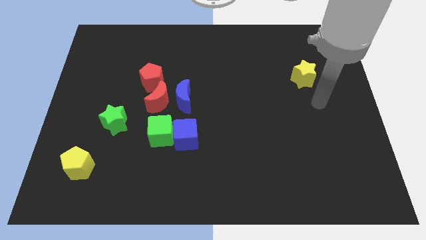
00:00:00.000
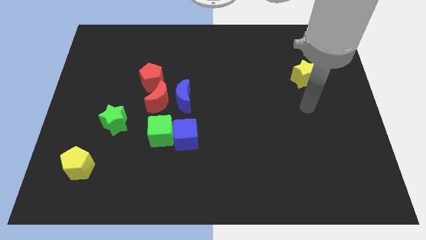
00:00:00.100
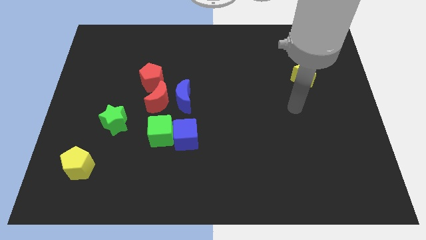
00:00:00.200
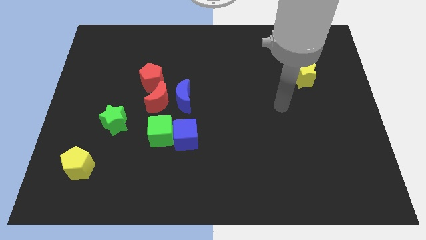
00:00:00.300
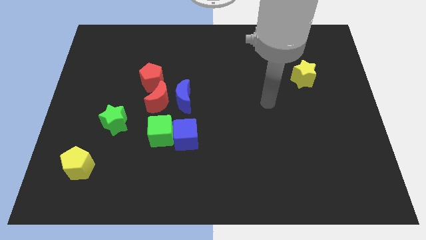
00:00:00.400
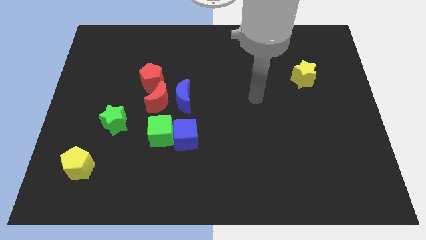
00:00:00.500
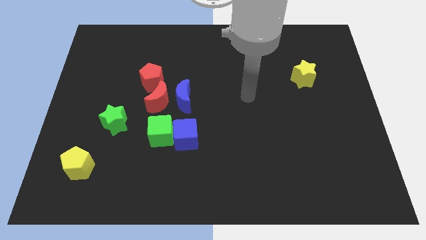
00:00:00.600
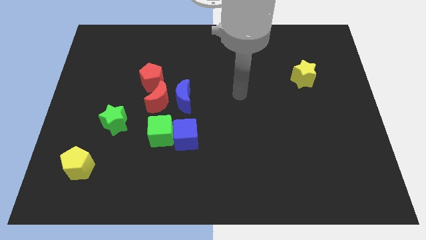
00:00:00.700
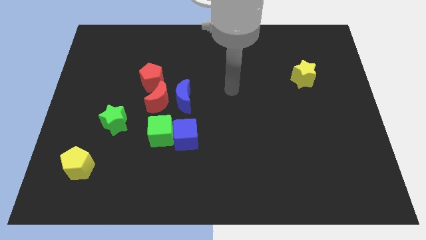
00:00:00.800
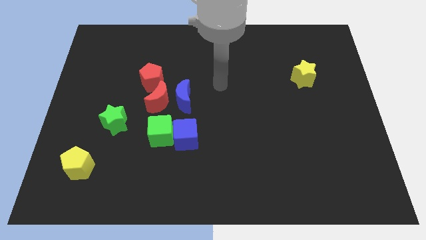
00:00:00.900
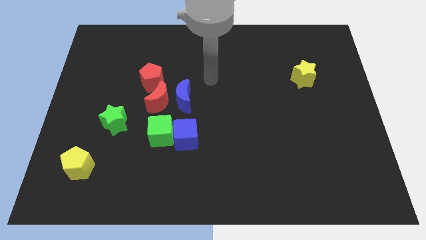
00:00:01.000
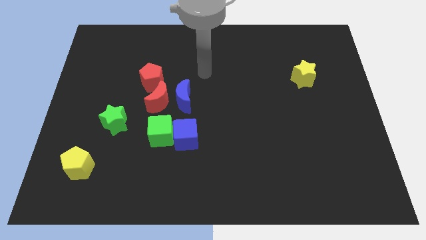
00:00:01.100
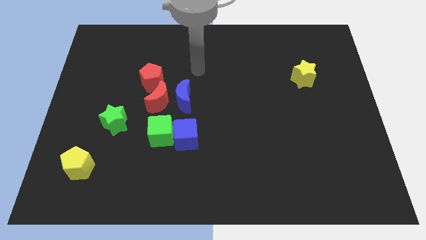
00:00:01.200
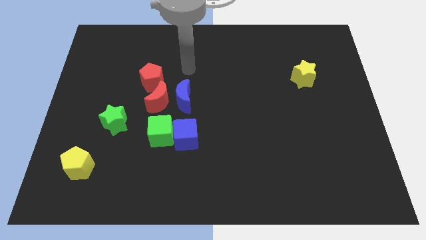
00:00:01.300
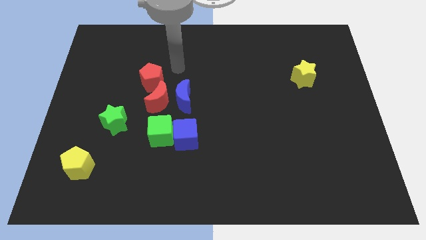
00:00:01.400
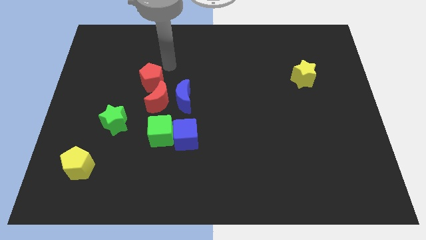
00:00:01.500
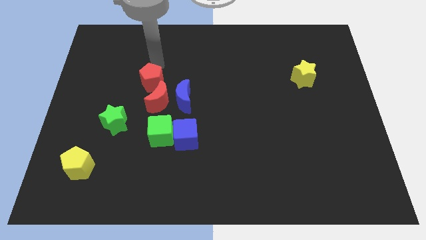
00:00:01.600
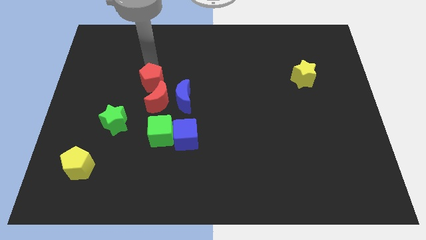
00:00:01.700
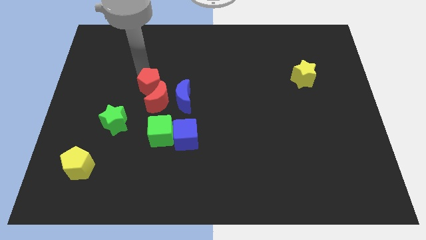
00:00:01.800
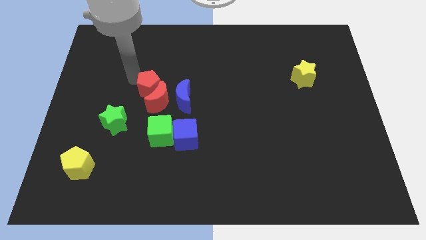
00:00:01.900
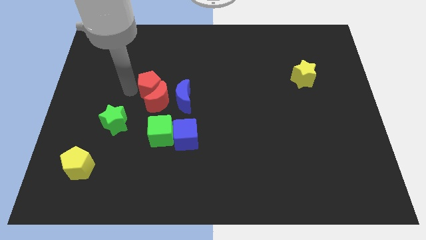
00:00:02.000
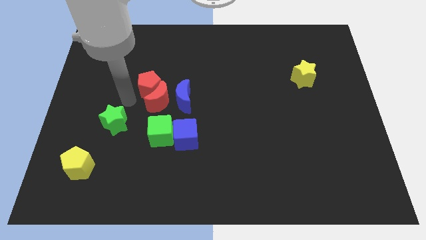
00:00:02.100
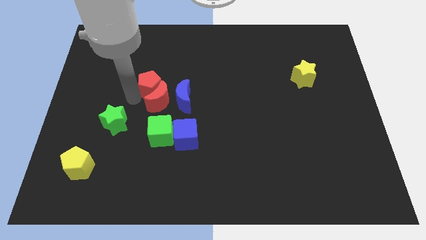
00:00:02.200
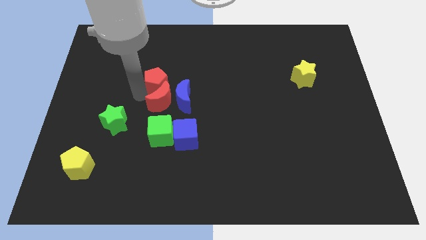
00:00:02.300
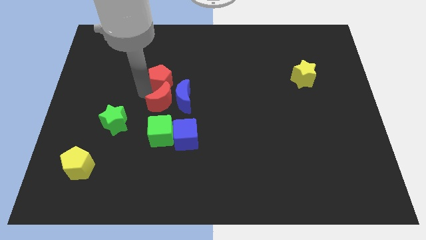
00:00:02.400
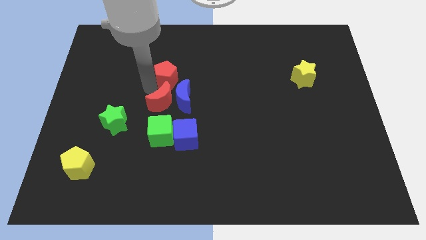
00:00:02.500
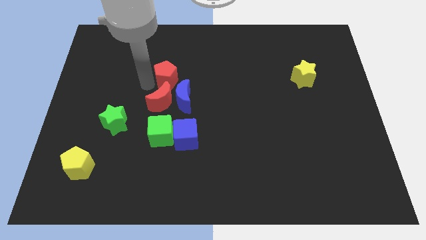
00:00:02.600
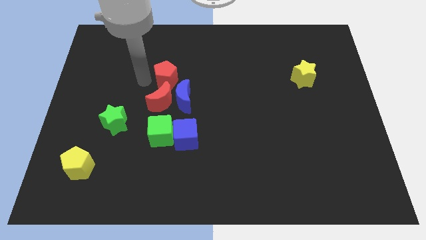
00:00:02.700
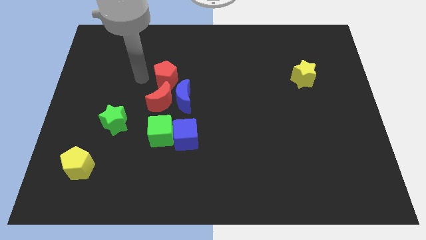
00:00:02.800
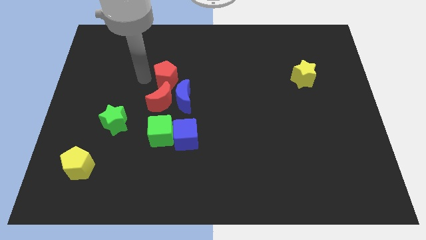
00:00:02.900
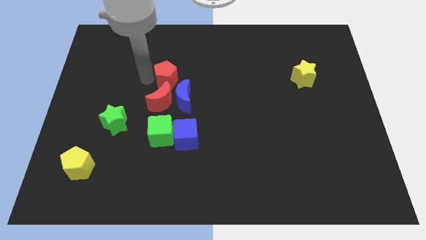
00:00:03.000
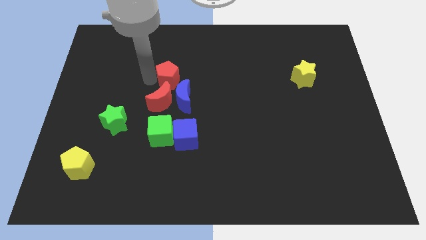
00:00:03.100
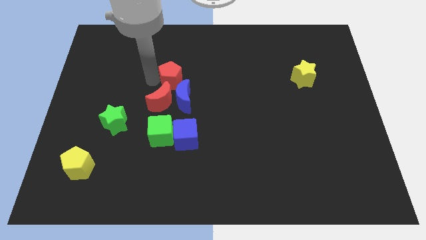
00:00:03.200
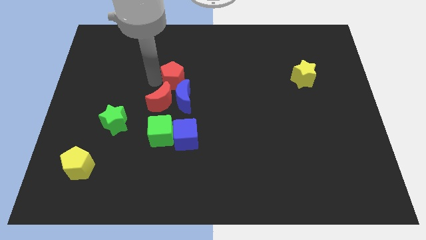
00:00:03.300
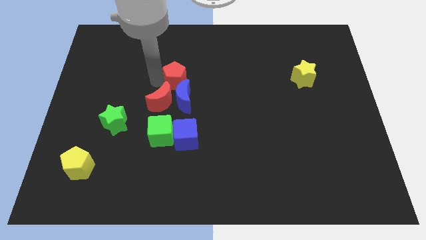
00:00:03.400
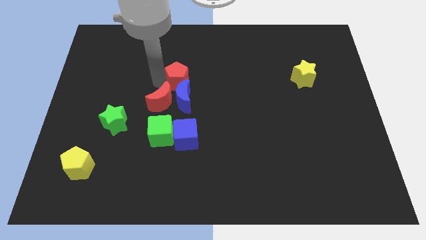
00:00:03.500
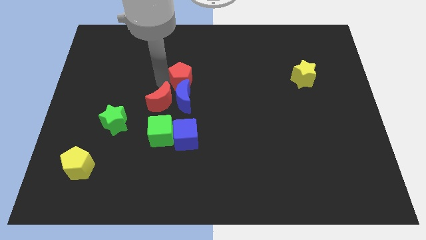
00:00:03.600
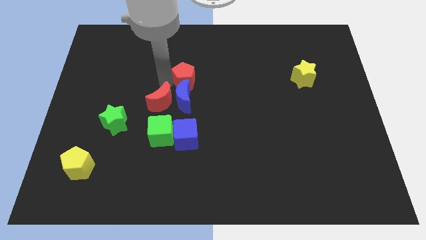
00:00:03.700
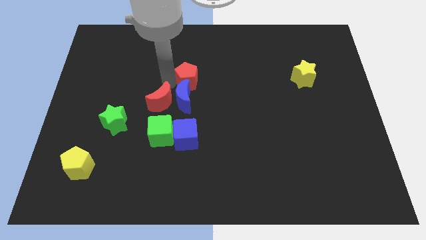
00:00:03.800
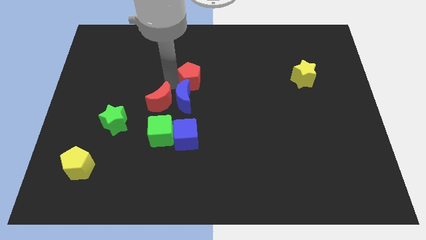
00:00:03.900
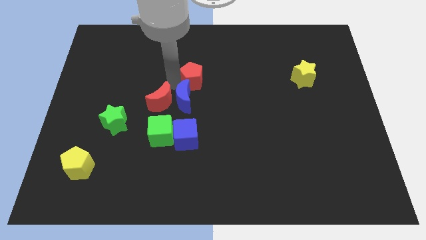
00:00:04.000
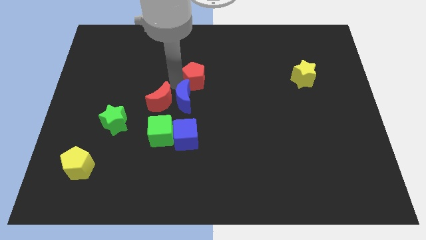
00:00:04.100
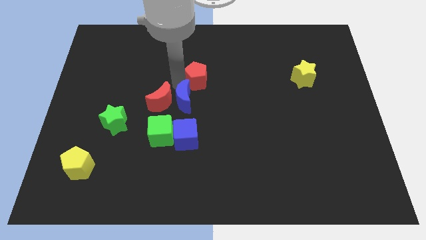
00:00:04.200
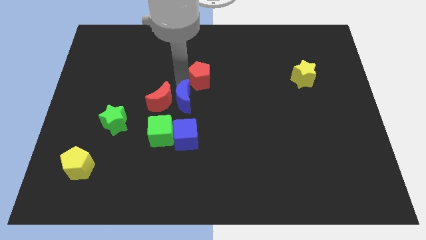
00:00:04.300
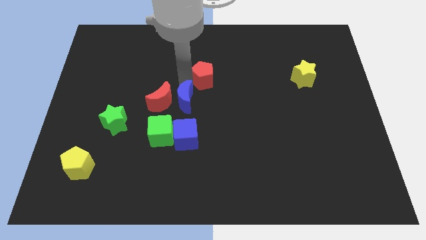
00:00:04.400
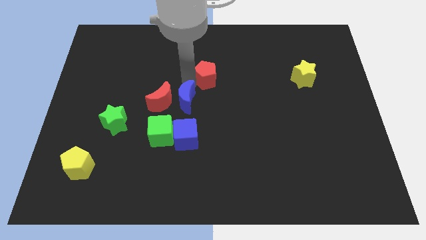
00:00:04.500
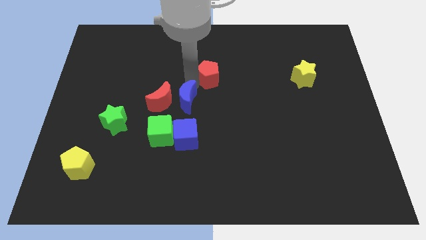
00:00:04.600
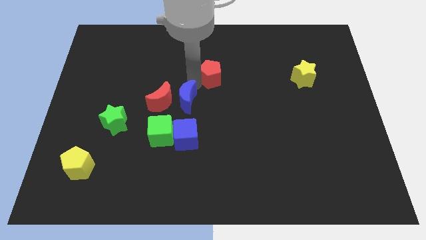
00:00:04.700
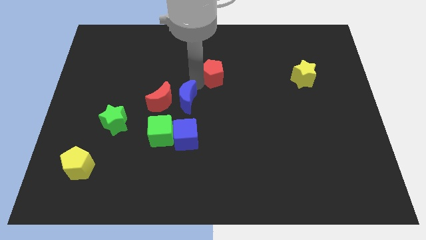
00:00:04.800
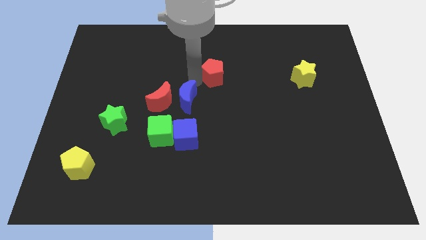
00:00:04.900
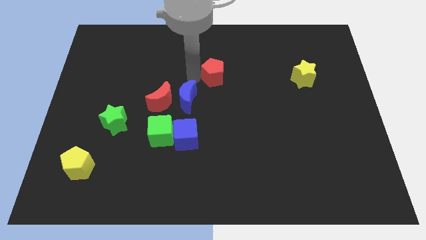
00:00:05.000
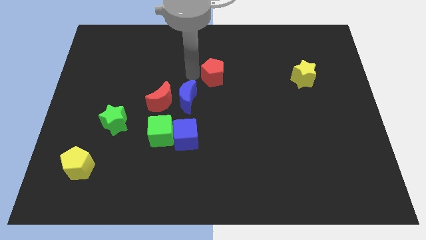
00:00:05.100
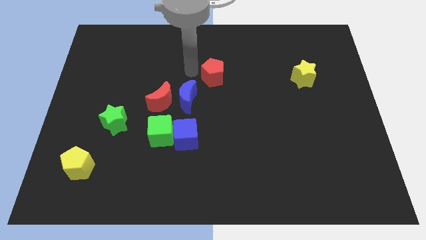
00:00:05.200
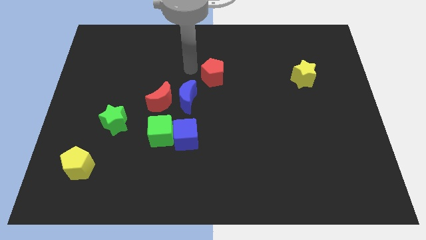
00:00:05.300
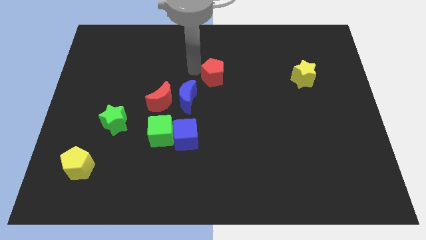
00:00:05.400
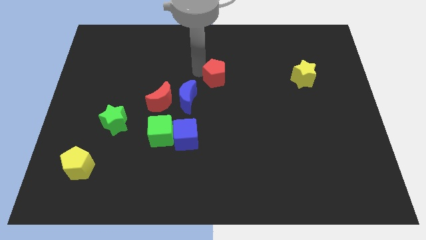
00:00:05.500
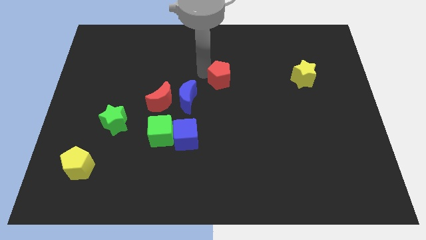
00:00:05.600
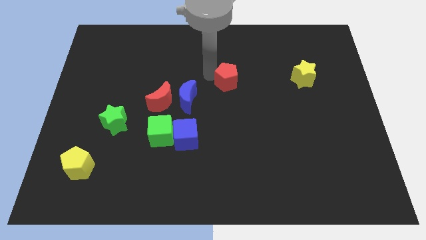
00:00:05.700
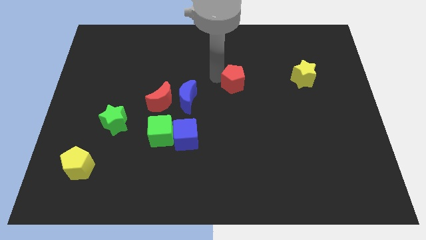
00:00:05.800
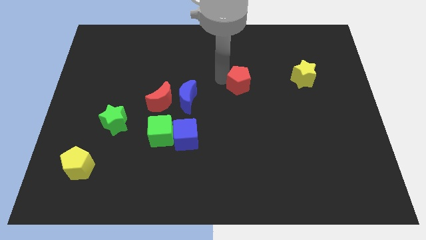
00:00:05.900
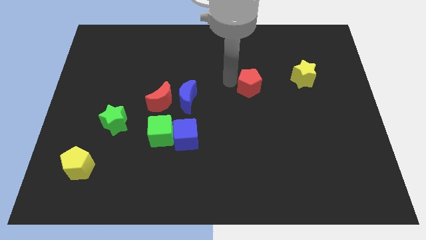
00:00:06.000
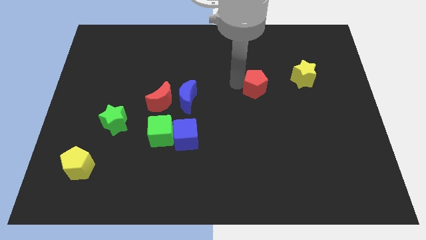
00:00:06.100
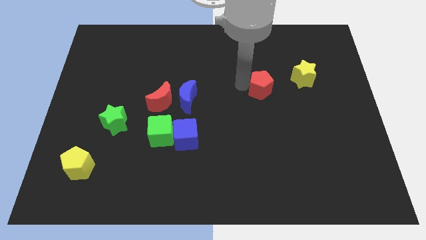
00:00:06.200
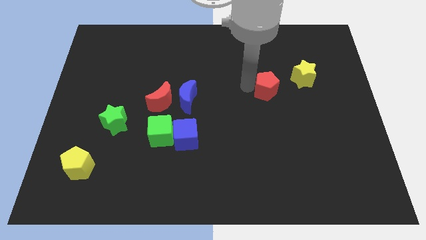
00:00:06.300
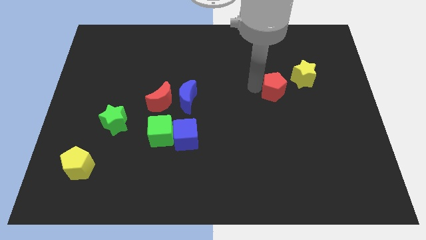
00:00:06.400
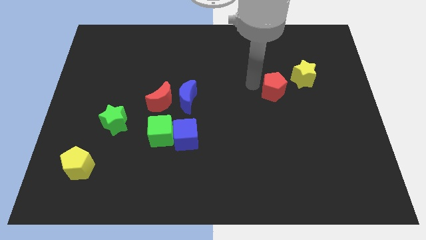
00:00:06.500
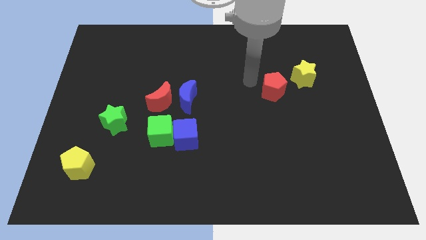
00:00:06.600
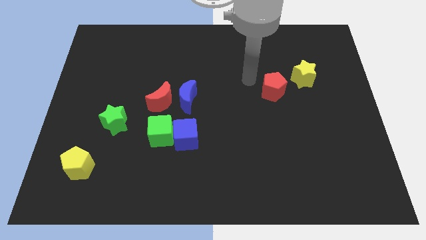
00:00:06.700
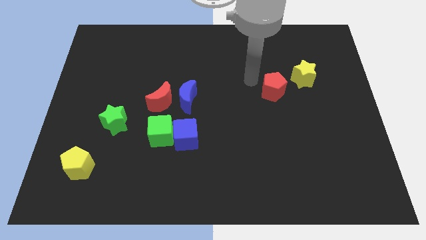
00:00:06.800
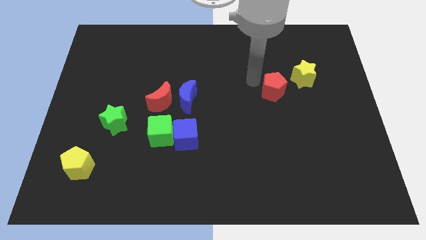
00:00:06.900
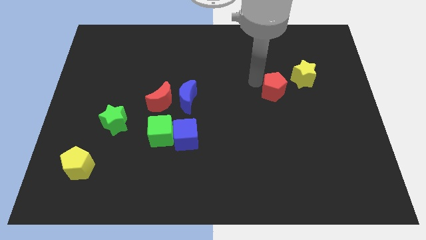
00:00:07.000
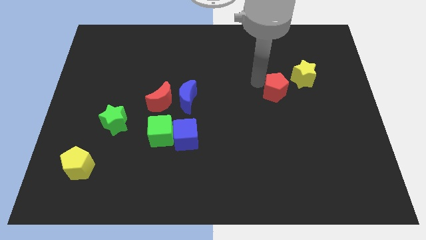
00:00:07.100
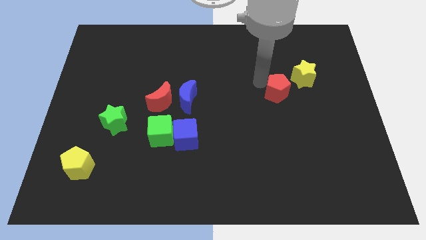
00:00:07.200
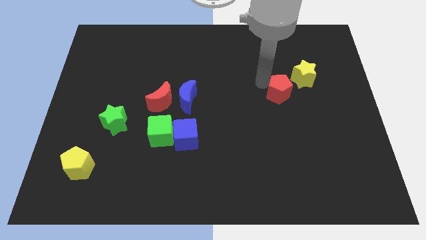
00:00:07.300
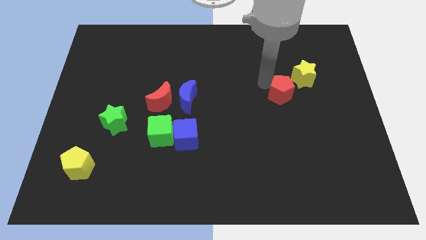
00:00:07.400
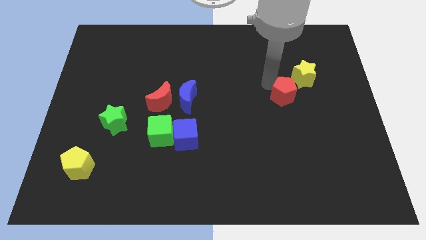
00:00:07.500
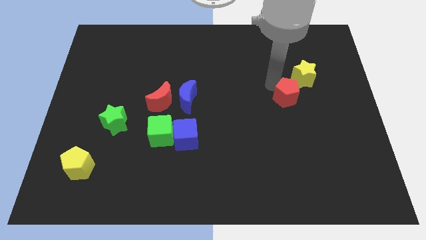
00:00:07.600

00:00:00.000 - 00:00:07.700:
put the red pentagon below the yellow star
